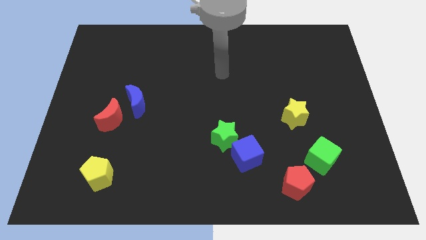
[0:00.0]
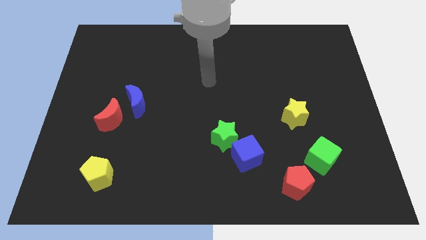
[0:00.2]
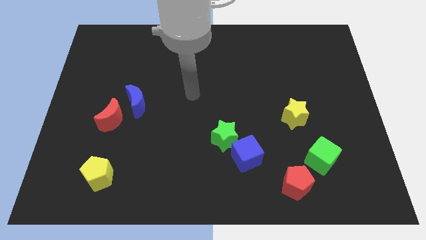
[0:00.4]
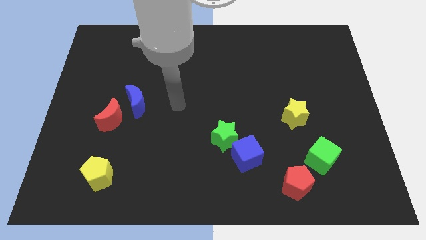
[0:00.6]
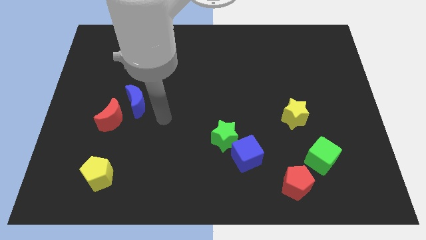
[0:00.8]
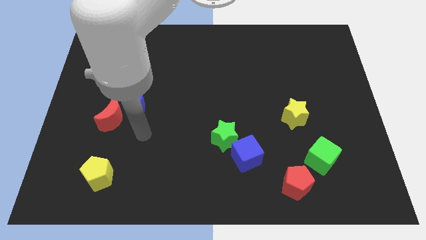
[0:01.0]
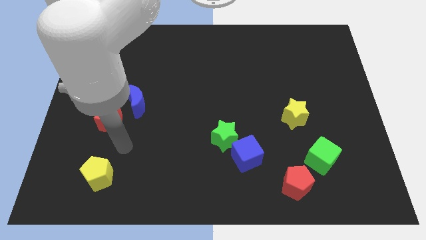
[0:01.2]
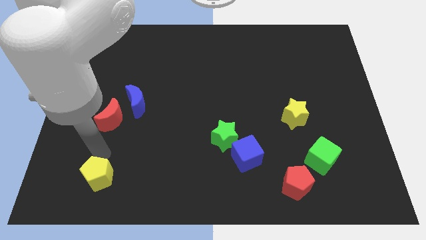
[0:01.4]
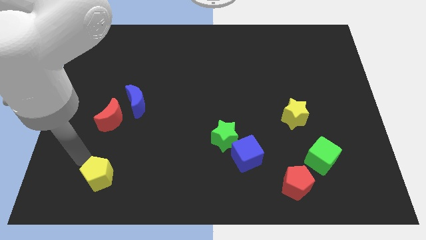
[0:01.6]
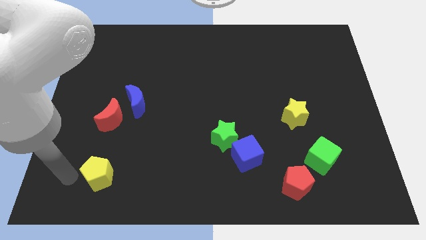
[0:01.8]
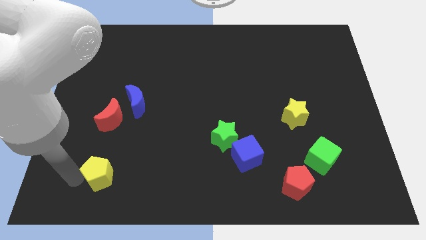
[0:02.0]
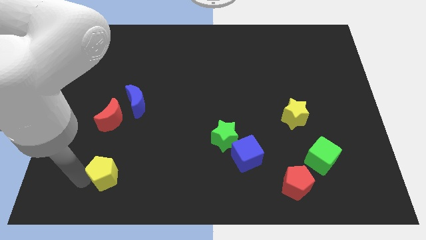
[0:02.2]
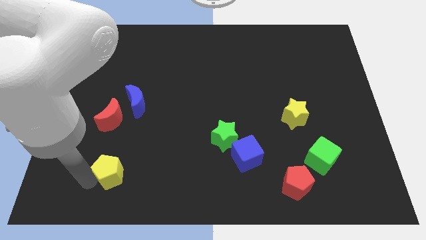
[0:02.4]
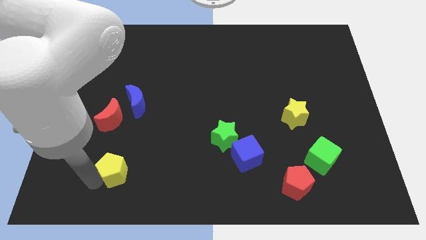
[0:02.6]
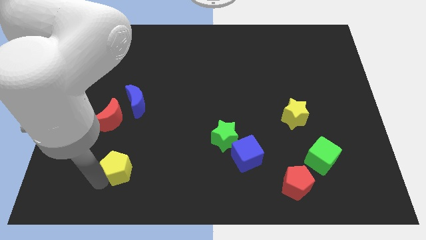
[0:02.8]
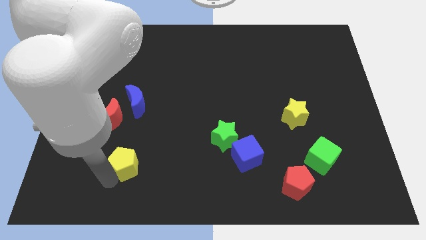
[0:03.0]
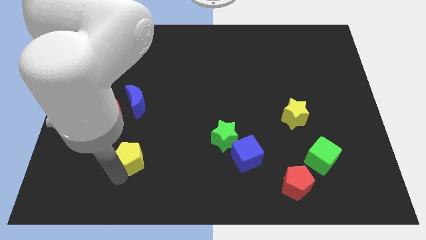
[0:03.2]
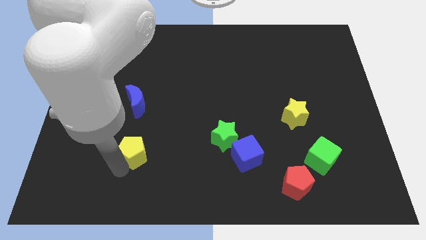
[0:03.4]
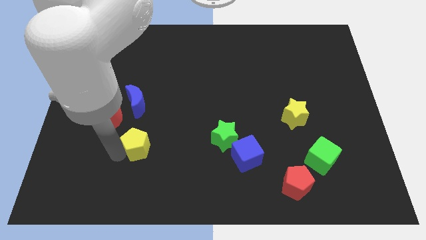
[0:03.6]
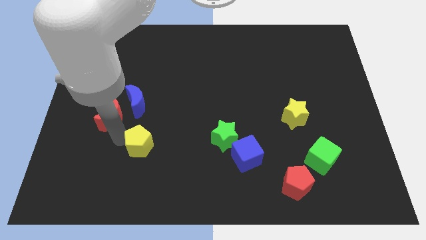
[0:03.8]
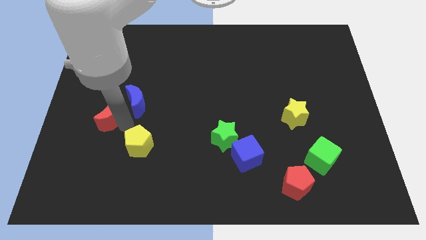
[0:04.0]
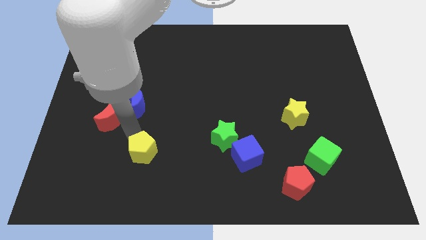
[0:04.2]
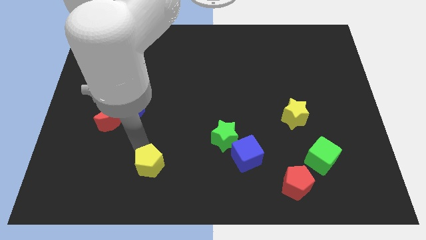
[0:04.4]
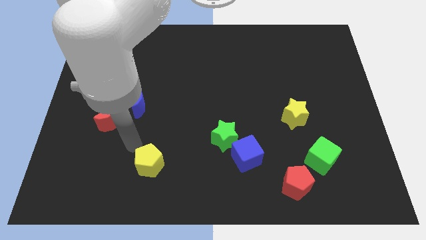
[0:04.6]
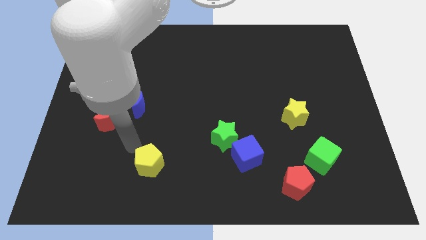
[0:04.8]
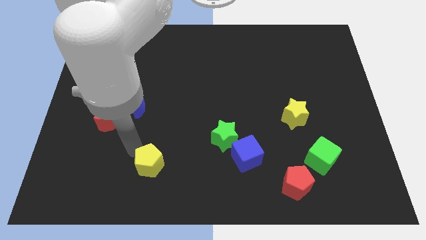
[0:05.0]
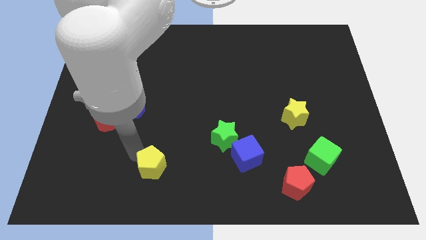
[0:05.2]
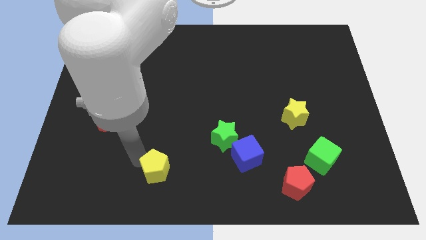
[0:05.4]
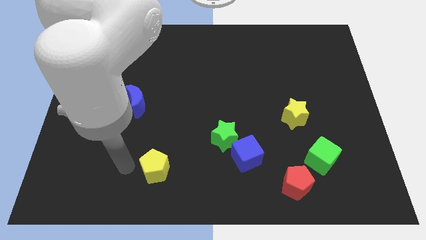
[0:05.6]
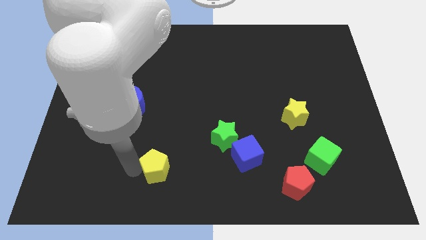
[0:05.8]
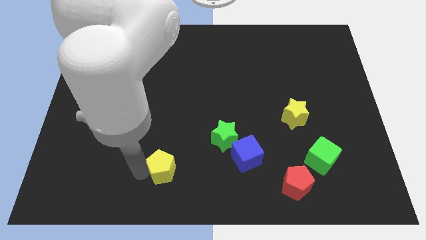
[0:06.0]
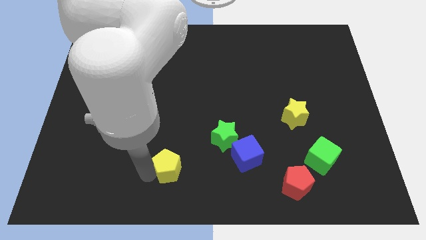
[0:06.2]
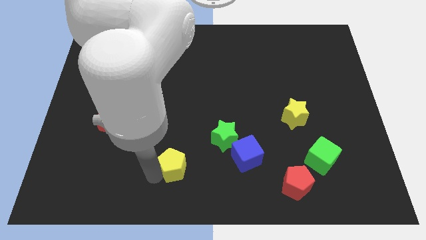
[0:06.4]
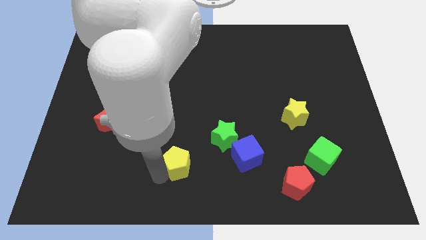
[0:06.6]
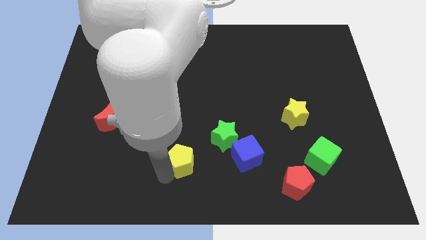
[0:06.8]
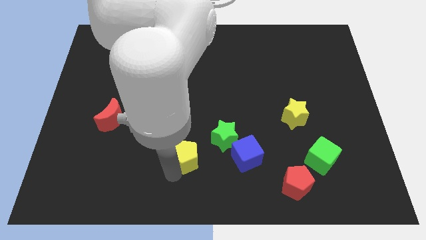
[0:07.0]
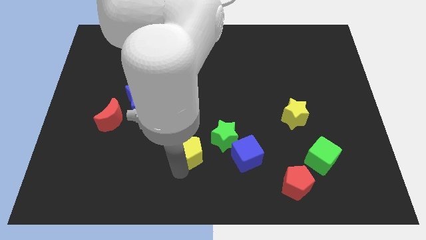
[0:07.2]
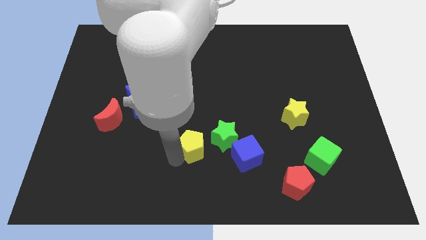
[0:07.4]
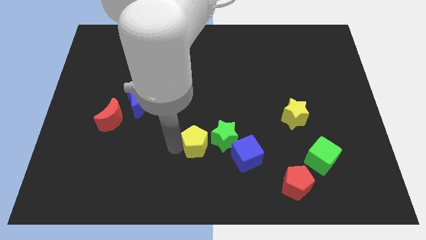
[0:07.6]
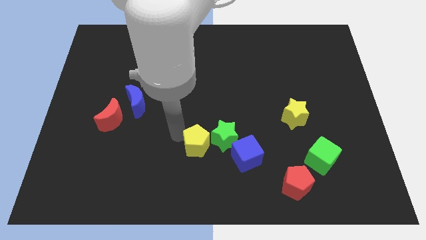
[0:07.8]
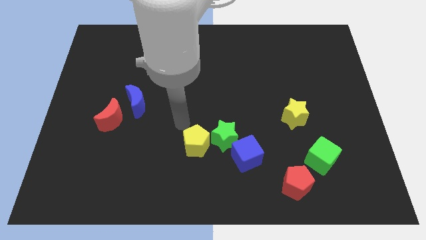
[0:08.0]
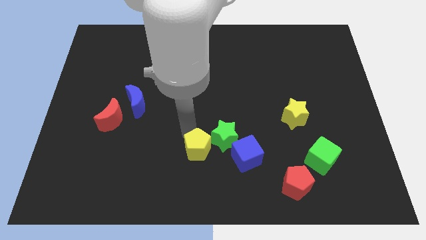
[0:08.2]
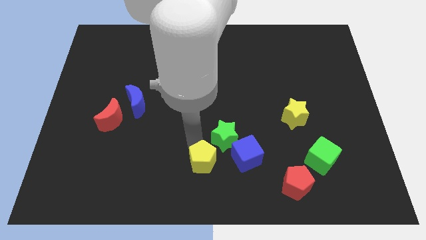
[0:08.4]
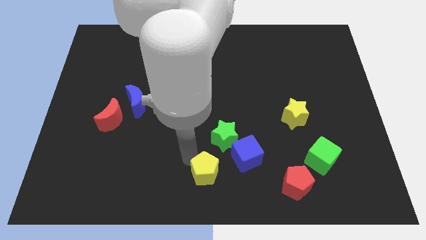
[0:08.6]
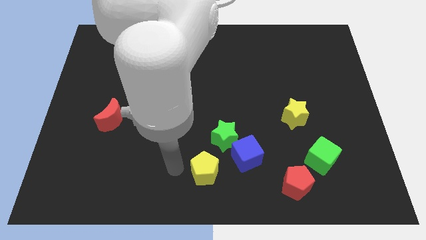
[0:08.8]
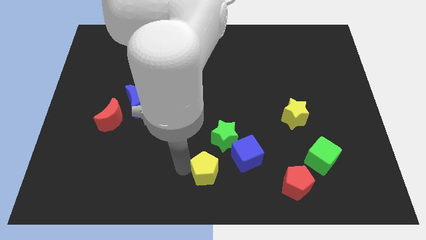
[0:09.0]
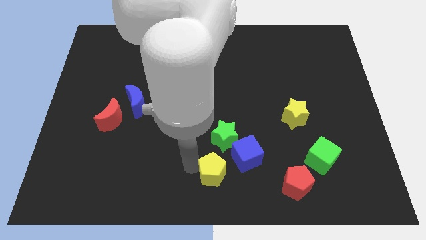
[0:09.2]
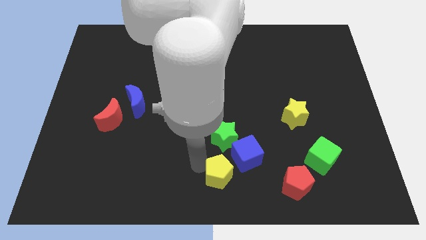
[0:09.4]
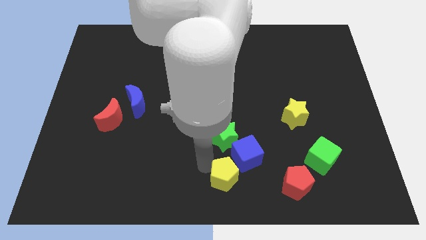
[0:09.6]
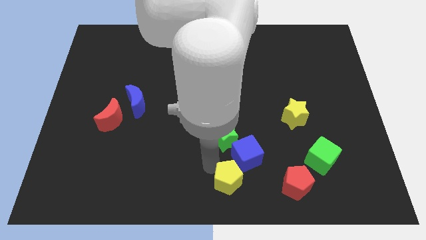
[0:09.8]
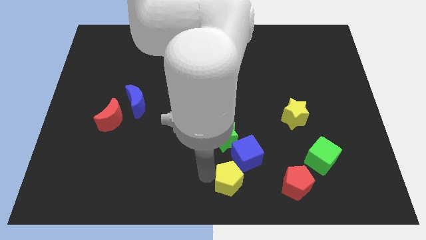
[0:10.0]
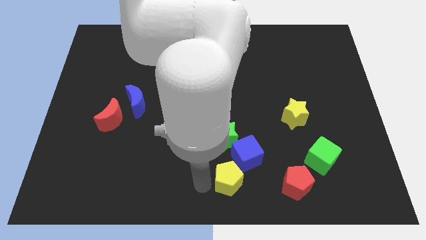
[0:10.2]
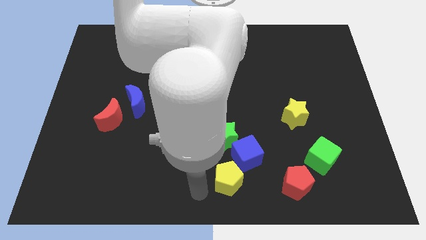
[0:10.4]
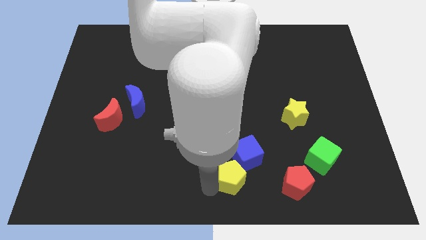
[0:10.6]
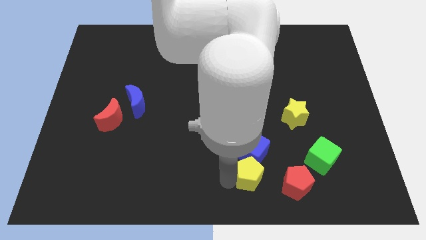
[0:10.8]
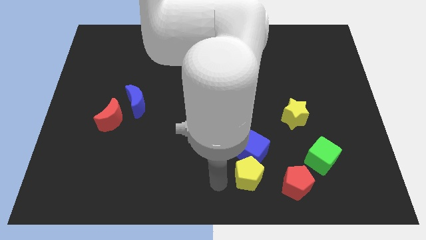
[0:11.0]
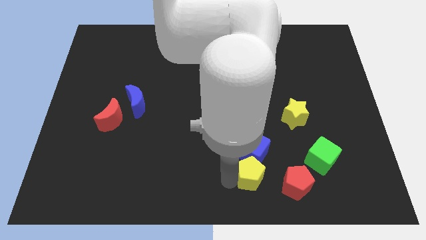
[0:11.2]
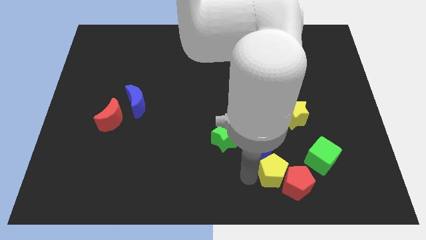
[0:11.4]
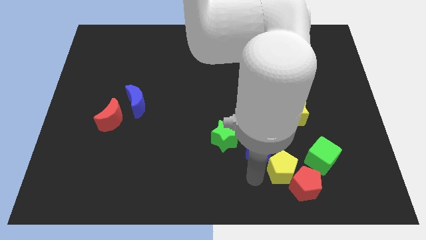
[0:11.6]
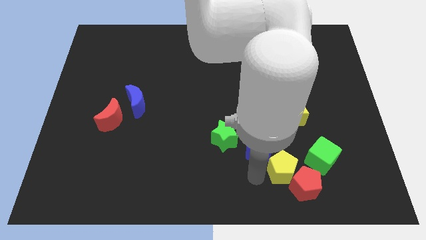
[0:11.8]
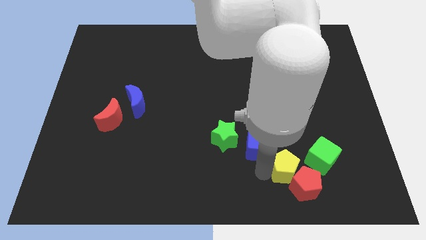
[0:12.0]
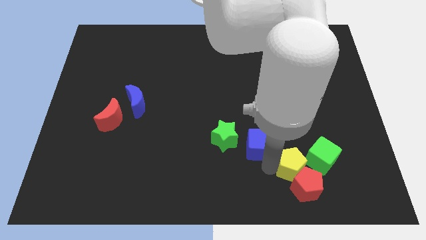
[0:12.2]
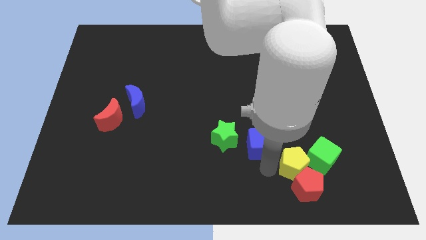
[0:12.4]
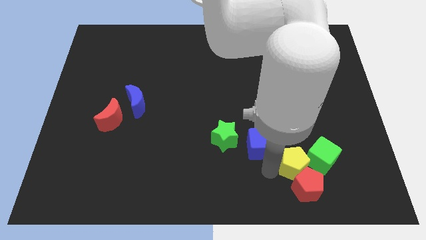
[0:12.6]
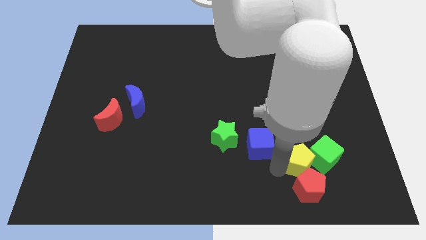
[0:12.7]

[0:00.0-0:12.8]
move the yellow pentagon towards the green cube

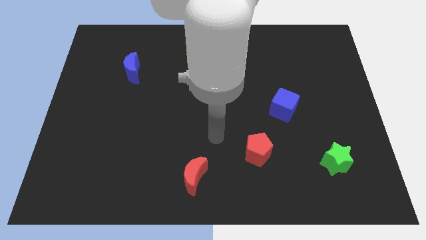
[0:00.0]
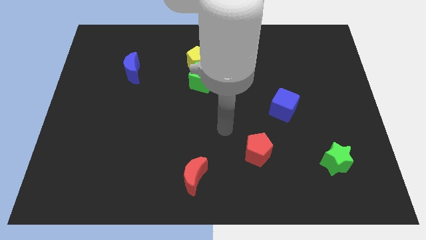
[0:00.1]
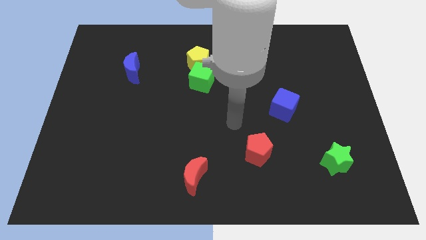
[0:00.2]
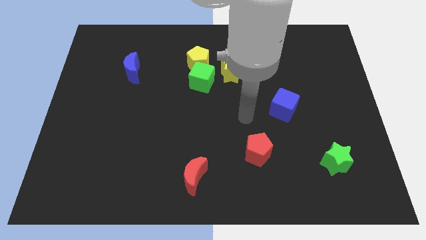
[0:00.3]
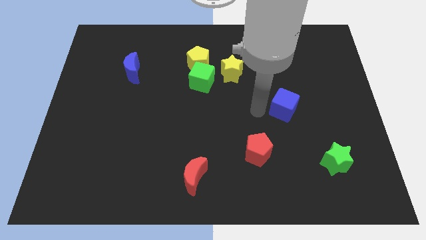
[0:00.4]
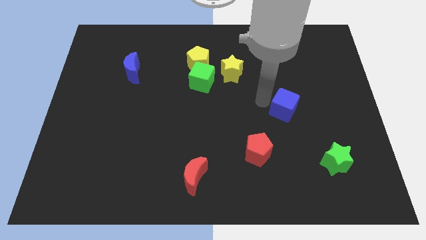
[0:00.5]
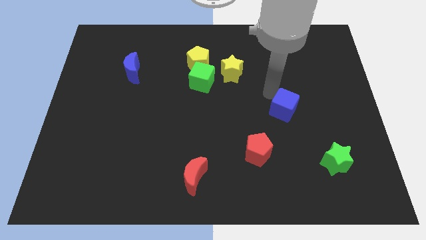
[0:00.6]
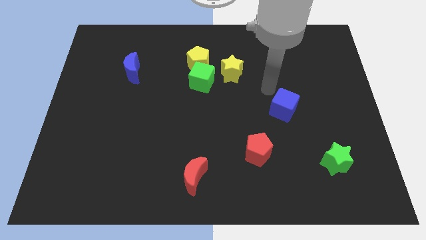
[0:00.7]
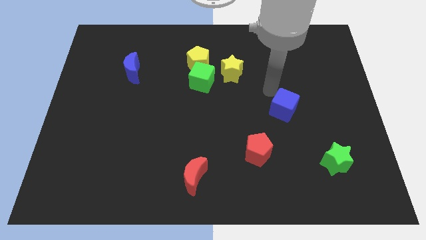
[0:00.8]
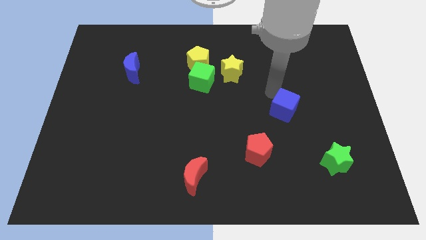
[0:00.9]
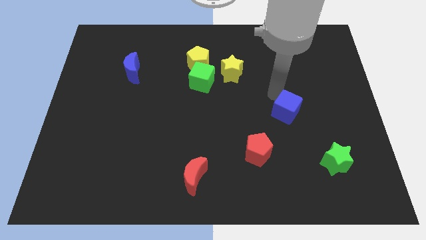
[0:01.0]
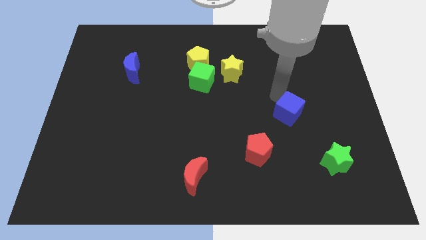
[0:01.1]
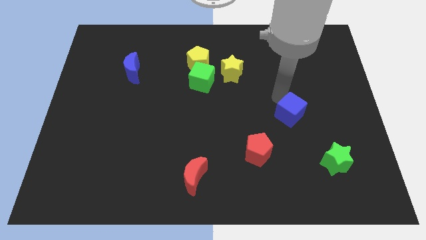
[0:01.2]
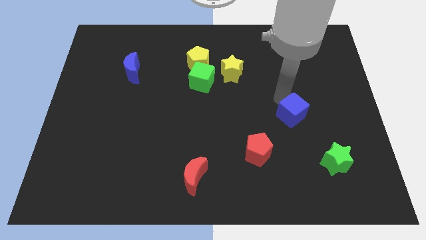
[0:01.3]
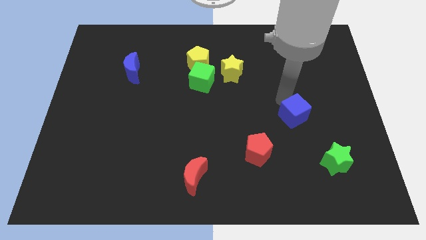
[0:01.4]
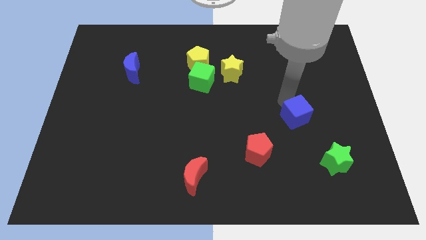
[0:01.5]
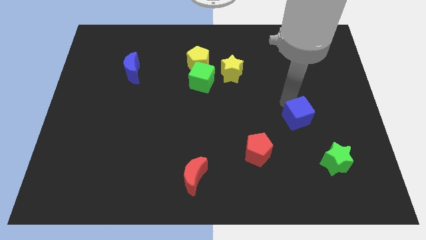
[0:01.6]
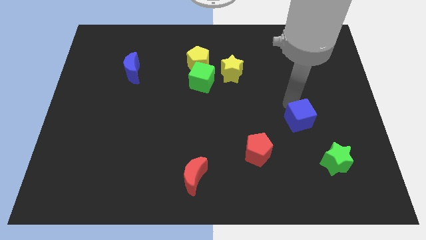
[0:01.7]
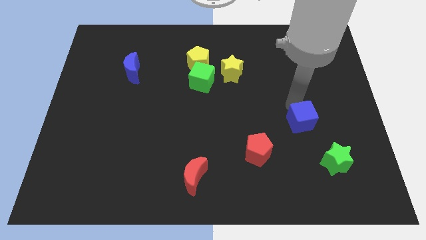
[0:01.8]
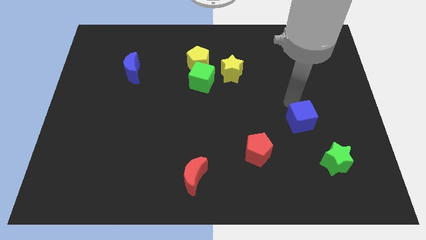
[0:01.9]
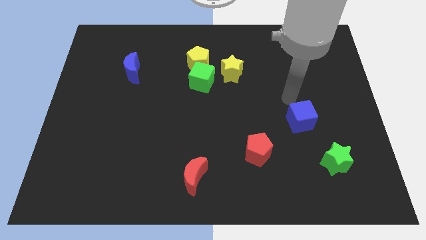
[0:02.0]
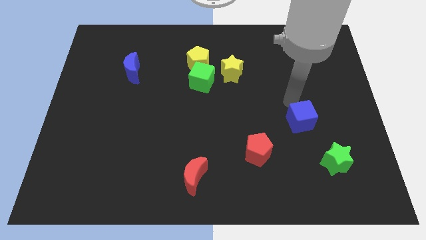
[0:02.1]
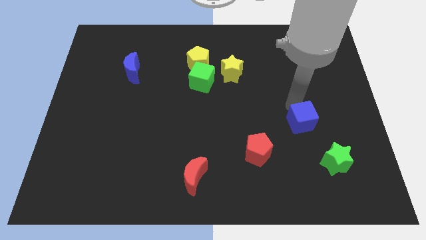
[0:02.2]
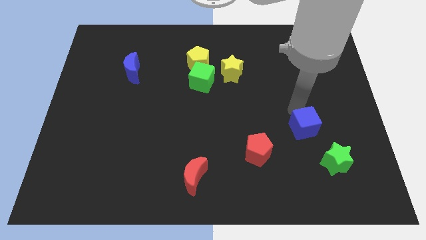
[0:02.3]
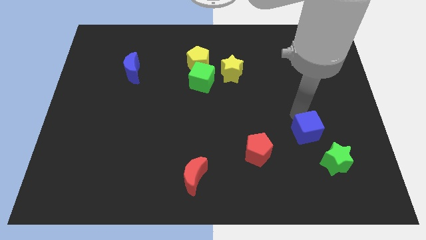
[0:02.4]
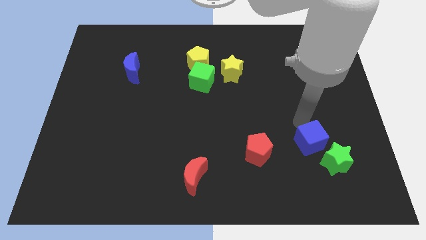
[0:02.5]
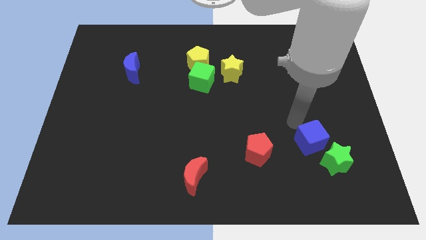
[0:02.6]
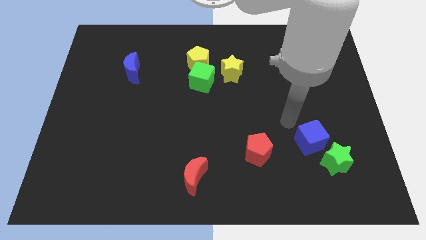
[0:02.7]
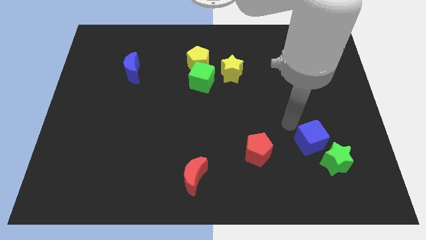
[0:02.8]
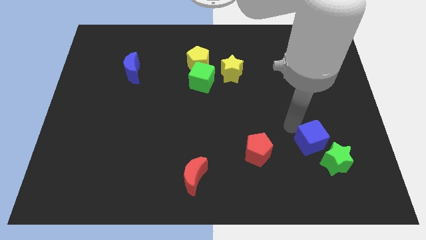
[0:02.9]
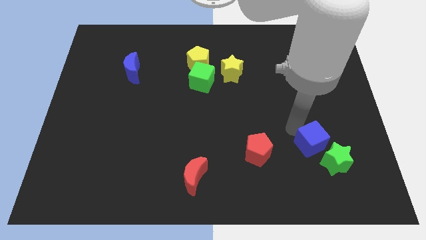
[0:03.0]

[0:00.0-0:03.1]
push the blue cube towards the green star
